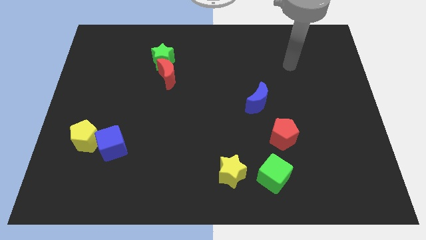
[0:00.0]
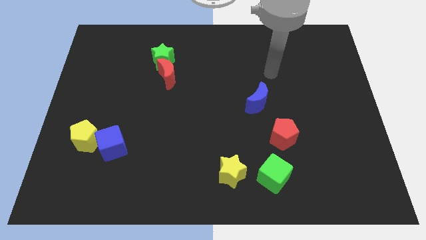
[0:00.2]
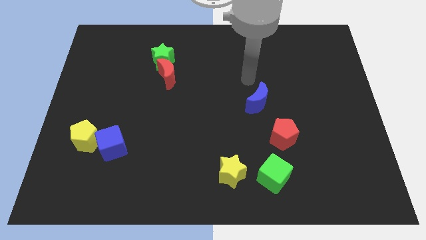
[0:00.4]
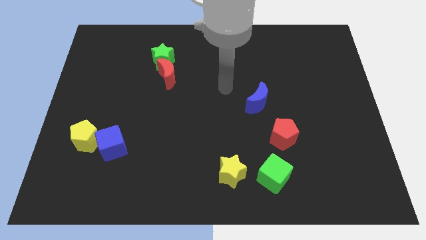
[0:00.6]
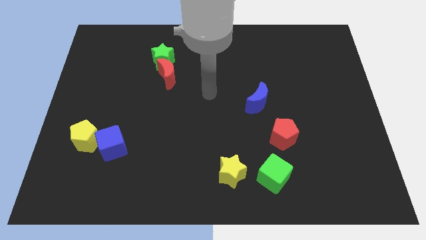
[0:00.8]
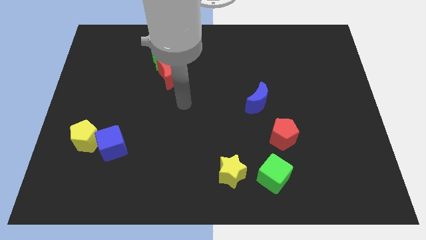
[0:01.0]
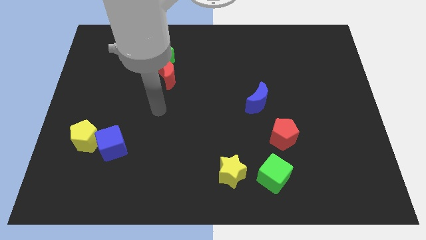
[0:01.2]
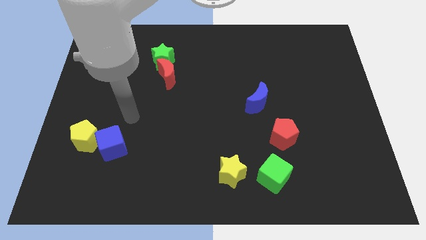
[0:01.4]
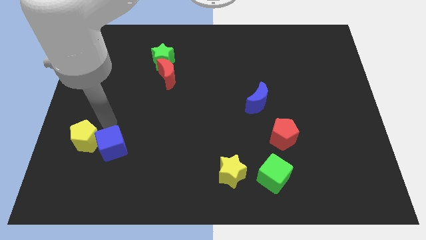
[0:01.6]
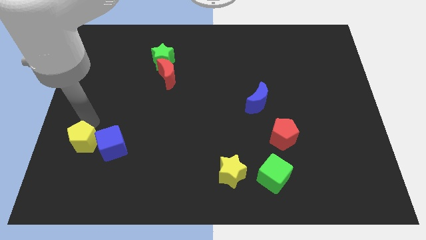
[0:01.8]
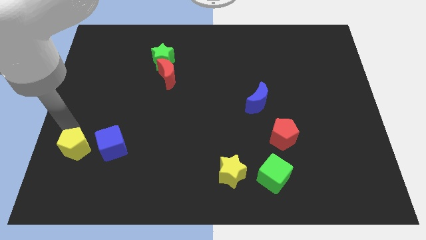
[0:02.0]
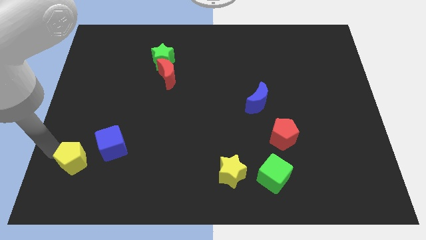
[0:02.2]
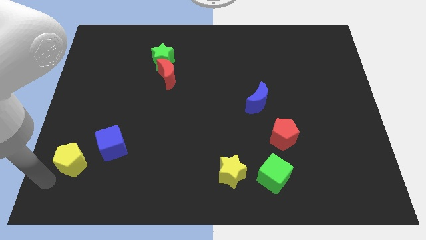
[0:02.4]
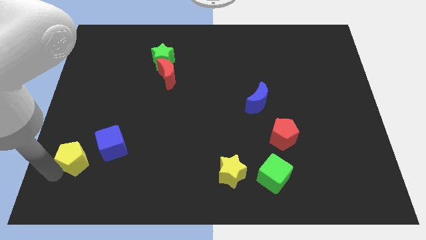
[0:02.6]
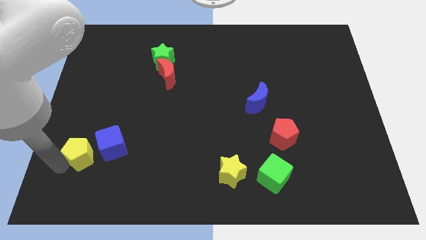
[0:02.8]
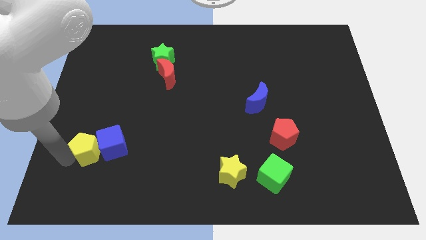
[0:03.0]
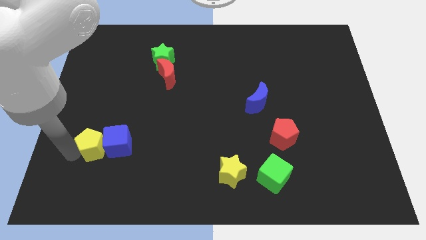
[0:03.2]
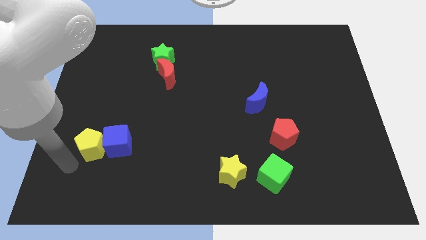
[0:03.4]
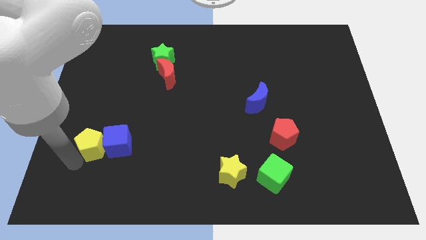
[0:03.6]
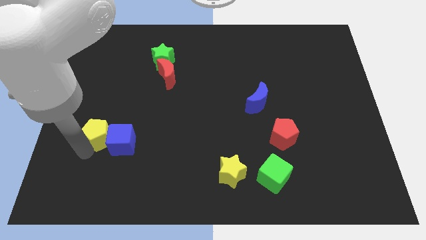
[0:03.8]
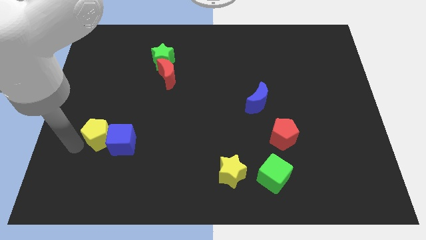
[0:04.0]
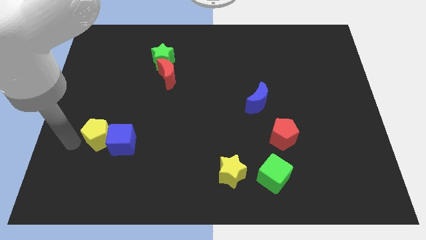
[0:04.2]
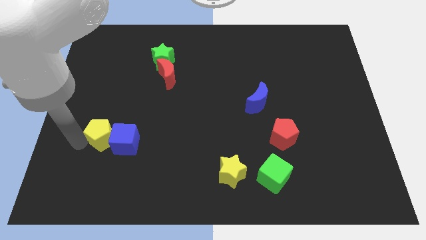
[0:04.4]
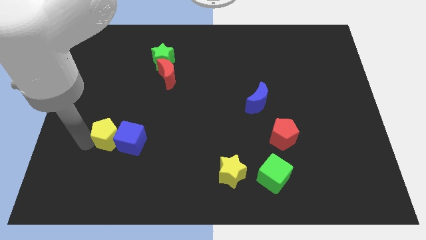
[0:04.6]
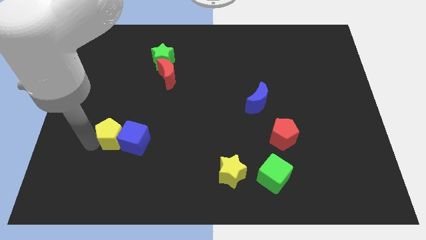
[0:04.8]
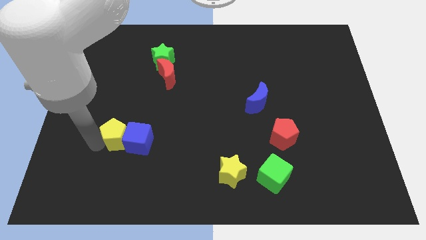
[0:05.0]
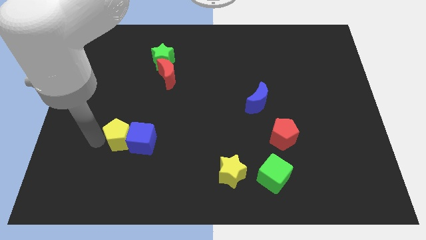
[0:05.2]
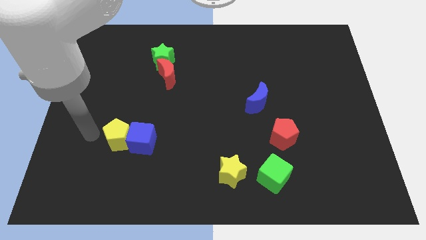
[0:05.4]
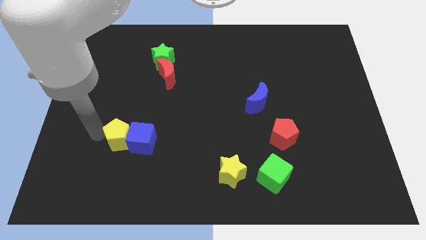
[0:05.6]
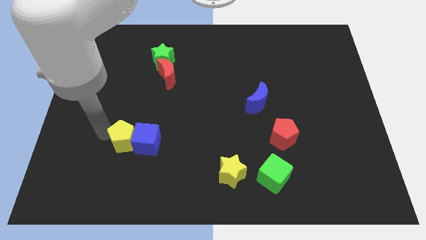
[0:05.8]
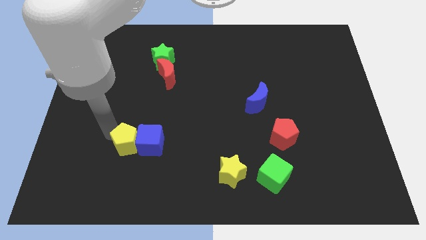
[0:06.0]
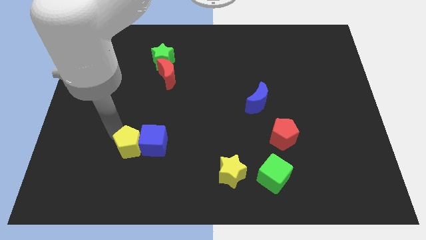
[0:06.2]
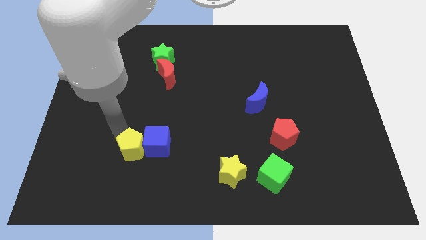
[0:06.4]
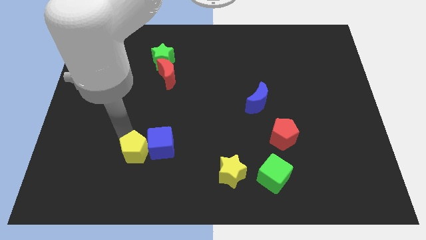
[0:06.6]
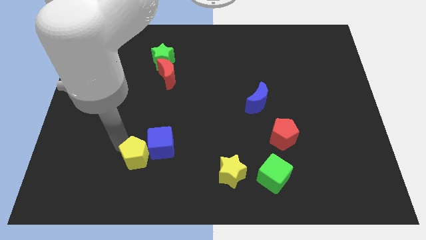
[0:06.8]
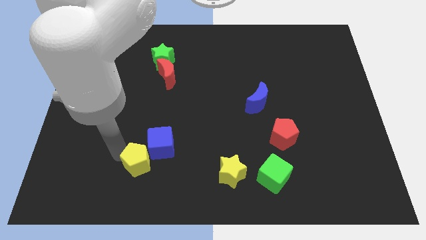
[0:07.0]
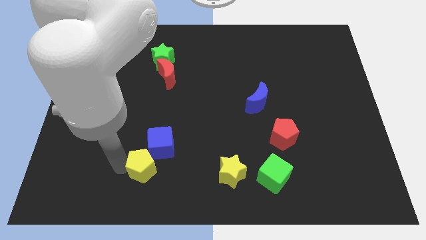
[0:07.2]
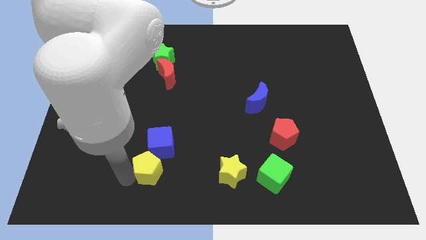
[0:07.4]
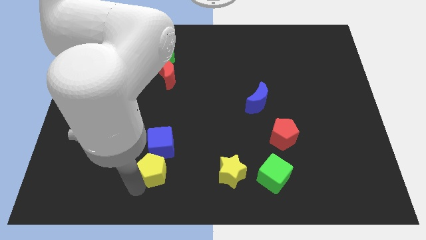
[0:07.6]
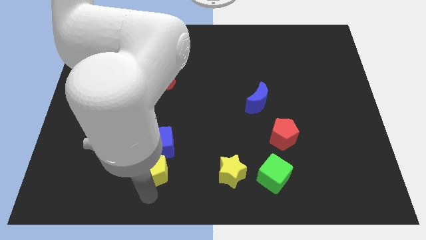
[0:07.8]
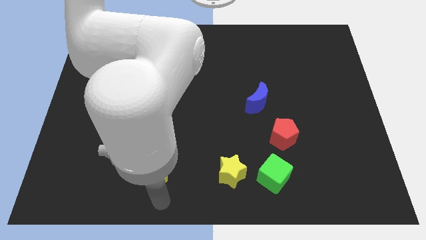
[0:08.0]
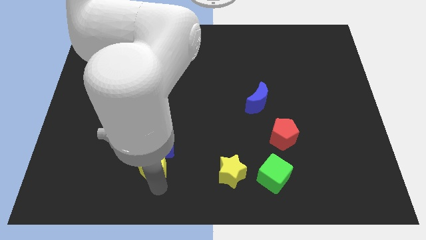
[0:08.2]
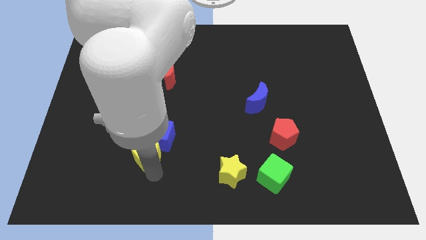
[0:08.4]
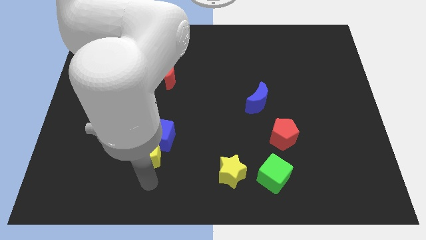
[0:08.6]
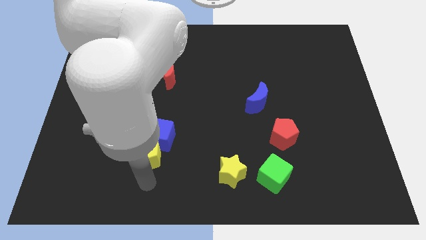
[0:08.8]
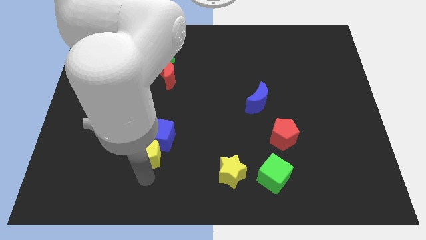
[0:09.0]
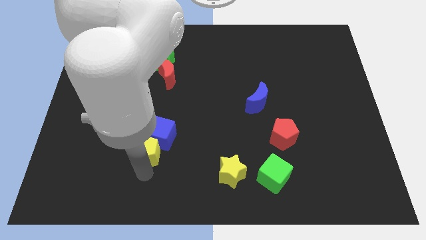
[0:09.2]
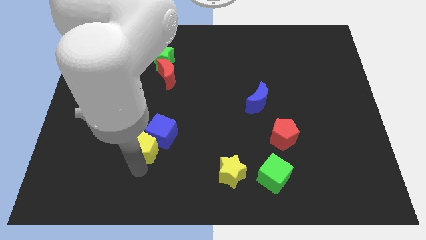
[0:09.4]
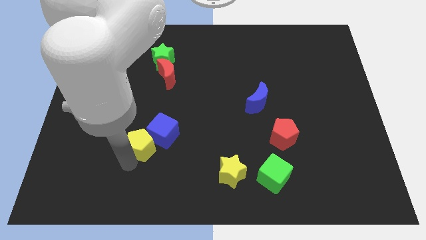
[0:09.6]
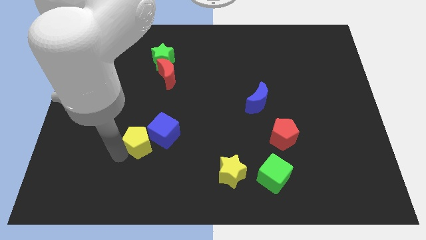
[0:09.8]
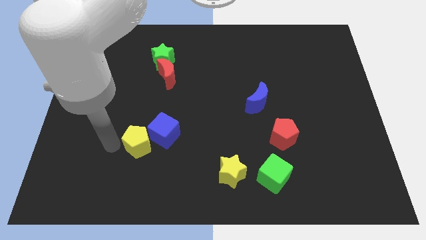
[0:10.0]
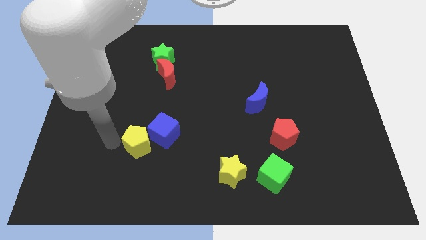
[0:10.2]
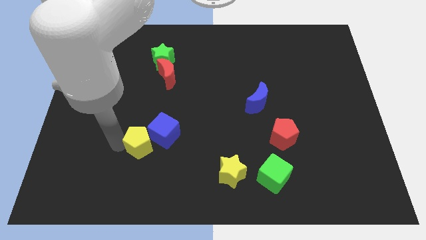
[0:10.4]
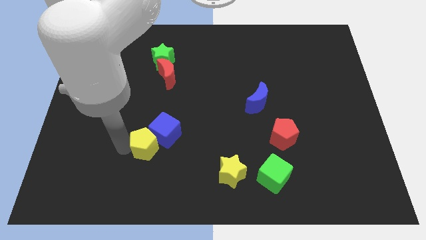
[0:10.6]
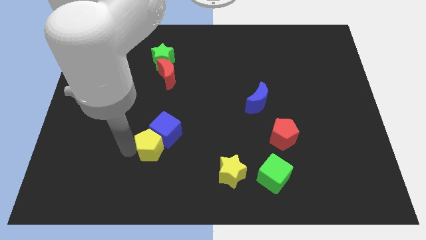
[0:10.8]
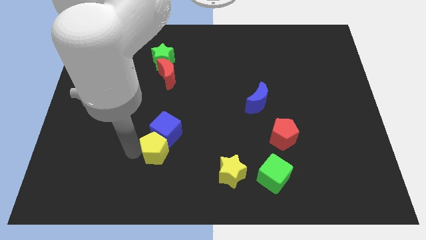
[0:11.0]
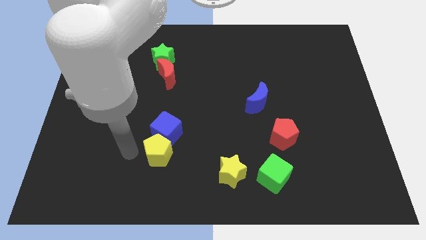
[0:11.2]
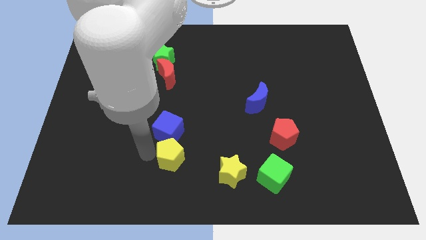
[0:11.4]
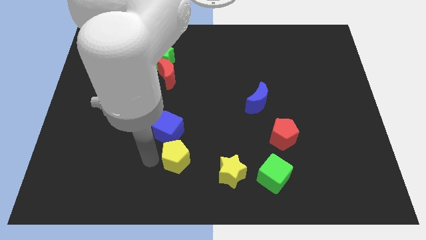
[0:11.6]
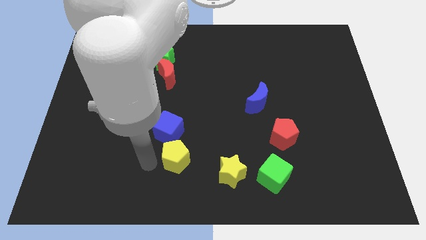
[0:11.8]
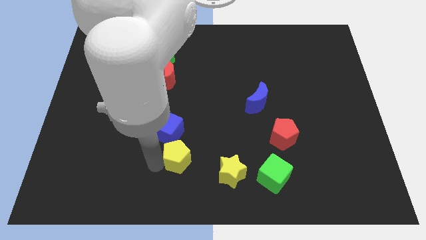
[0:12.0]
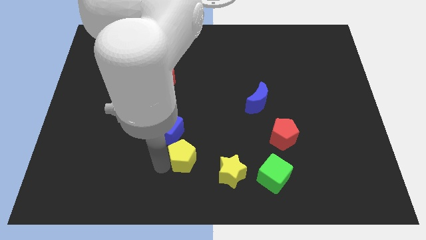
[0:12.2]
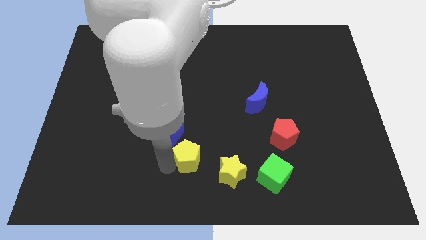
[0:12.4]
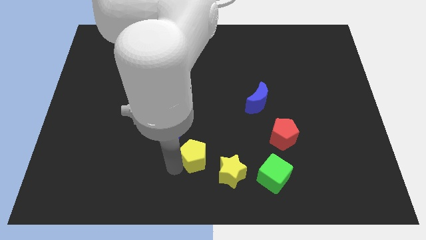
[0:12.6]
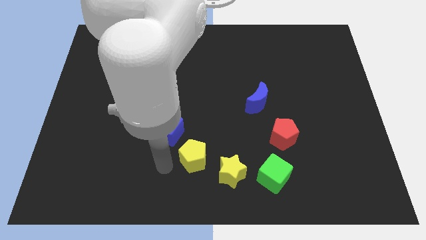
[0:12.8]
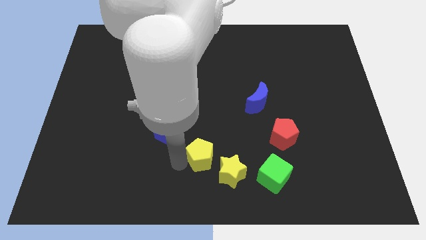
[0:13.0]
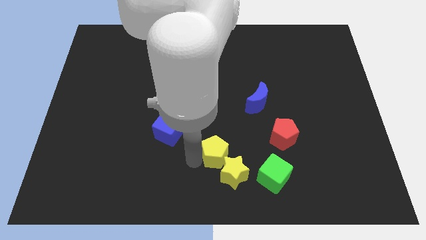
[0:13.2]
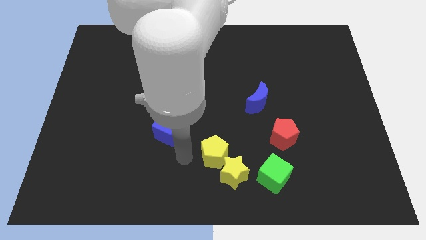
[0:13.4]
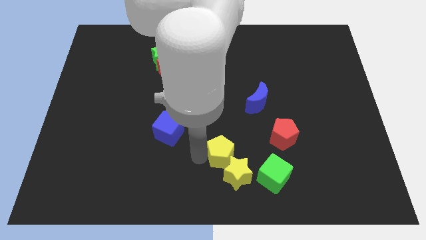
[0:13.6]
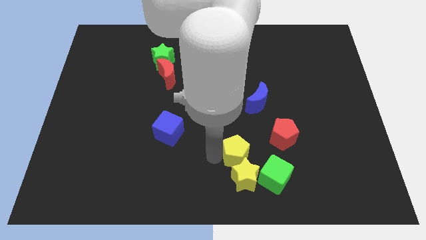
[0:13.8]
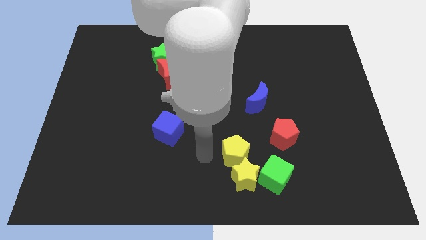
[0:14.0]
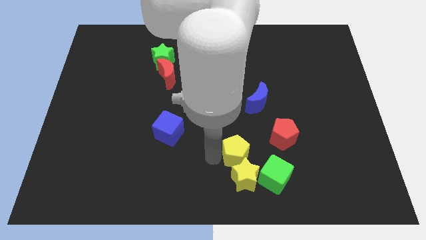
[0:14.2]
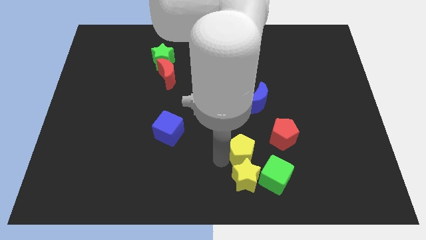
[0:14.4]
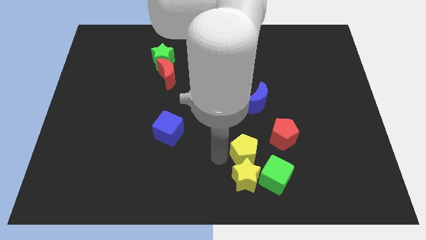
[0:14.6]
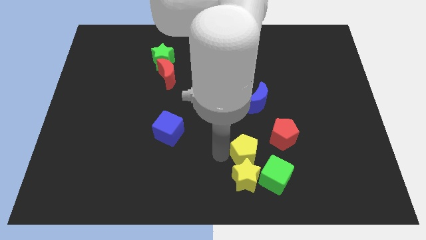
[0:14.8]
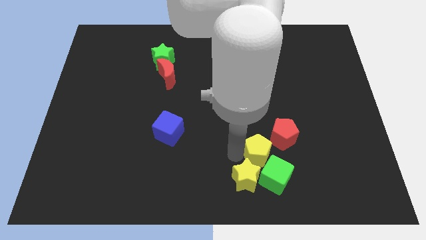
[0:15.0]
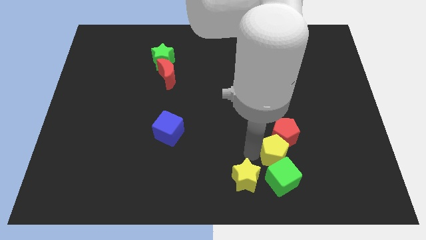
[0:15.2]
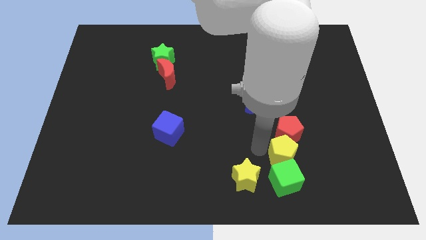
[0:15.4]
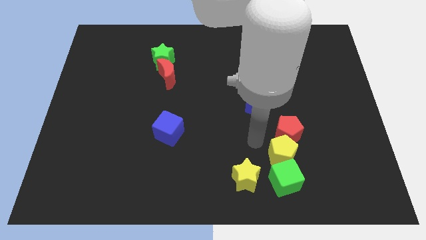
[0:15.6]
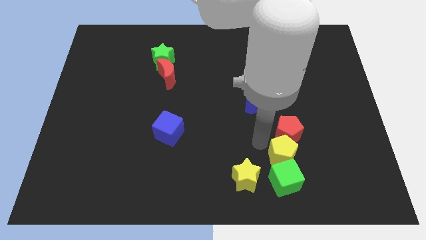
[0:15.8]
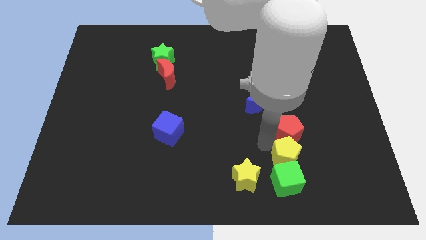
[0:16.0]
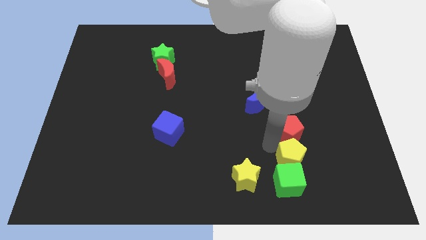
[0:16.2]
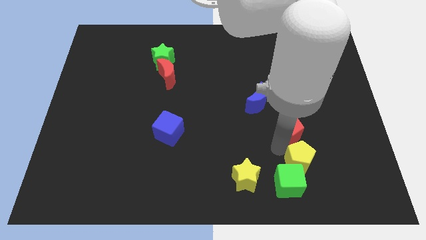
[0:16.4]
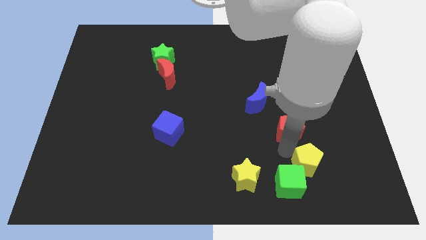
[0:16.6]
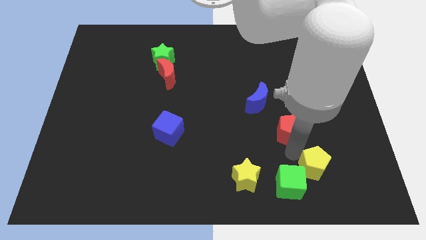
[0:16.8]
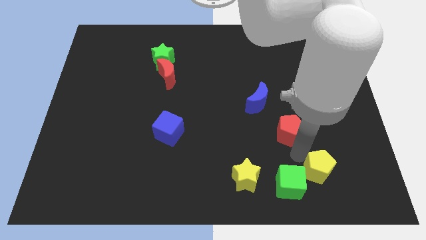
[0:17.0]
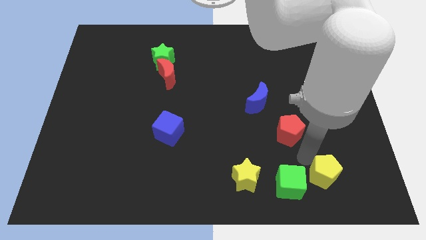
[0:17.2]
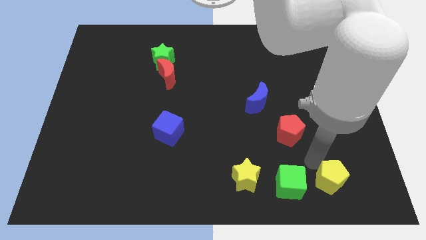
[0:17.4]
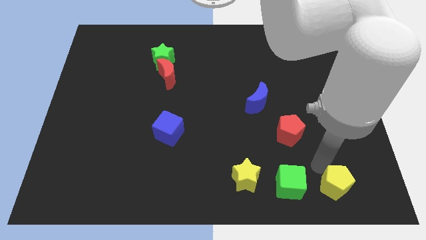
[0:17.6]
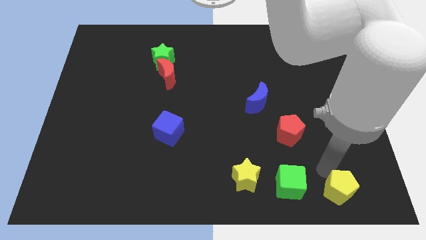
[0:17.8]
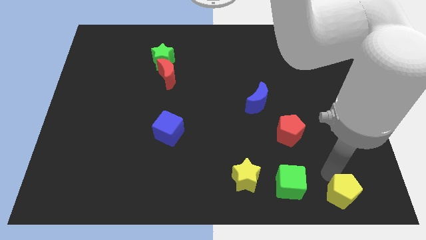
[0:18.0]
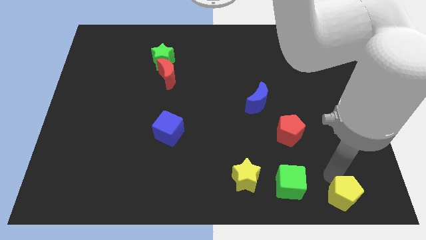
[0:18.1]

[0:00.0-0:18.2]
move the yellow pentagon to the bottom right corner
